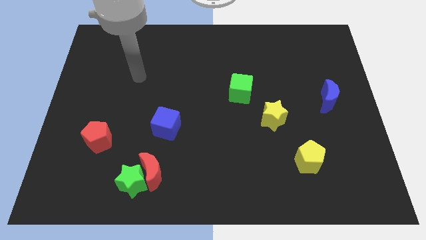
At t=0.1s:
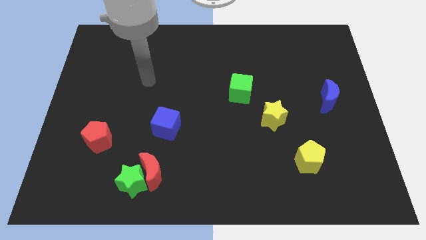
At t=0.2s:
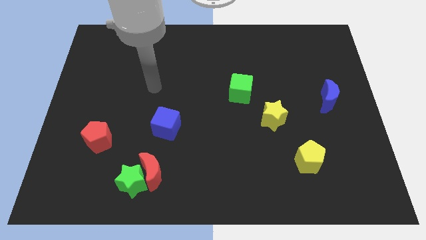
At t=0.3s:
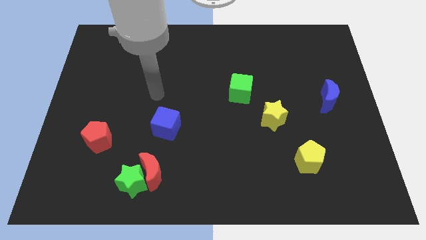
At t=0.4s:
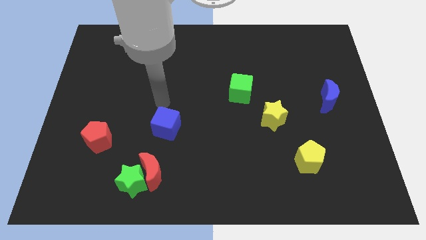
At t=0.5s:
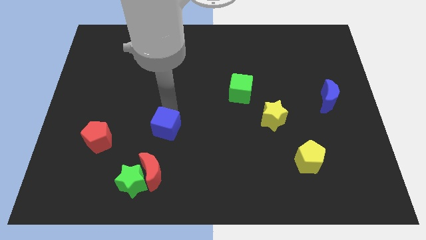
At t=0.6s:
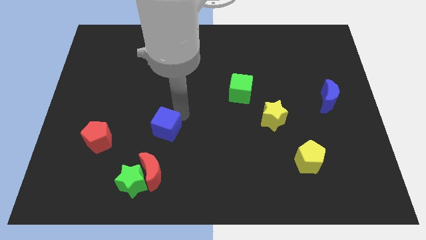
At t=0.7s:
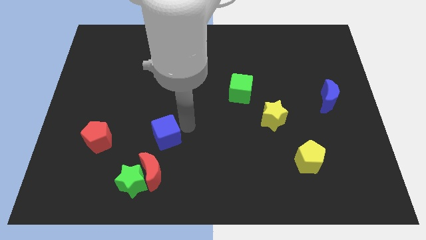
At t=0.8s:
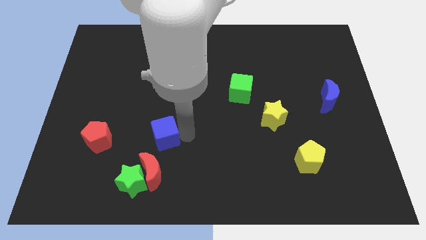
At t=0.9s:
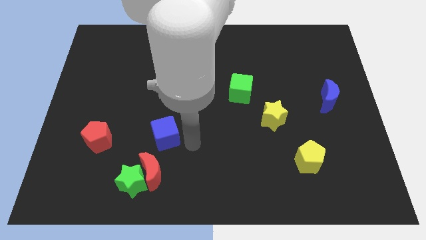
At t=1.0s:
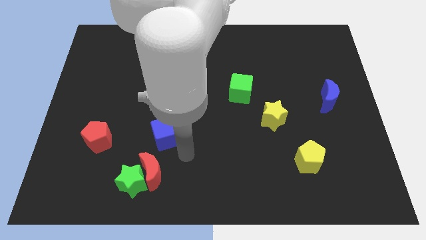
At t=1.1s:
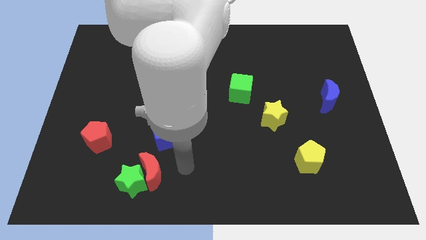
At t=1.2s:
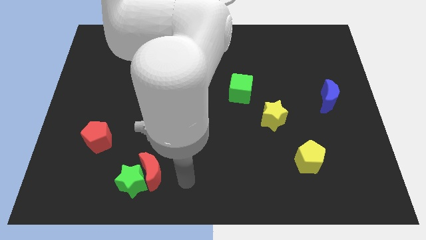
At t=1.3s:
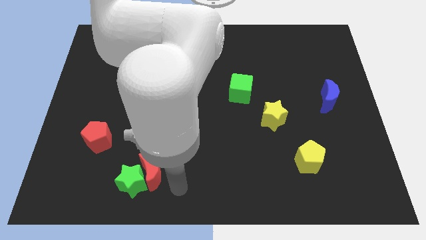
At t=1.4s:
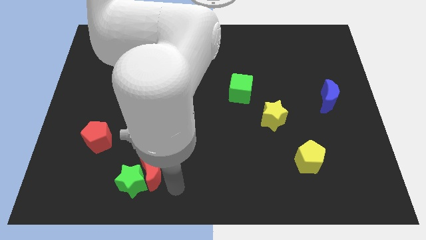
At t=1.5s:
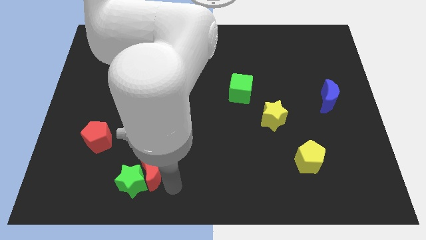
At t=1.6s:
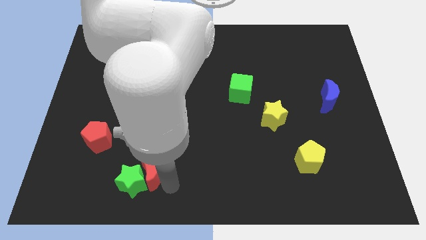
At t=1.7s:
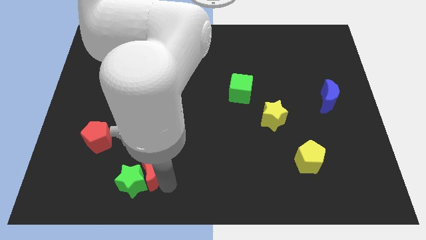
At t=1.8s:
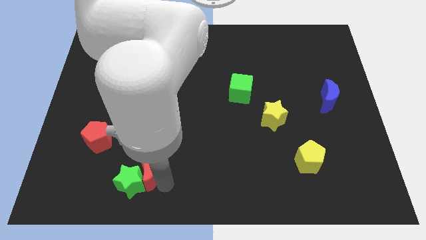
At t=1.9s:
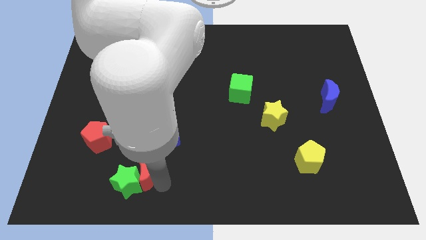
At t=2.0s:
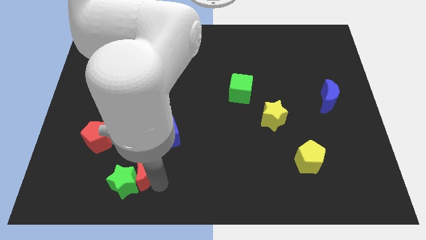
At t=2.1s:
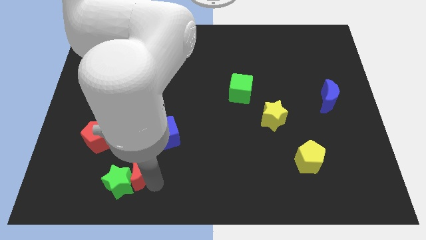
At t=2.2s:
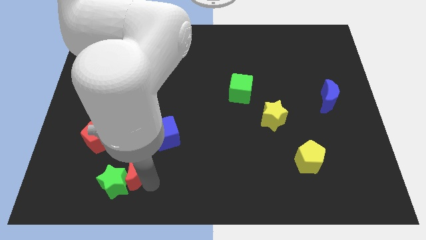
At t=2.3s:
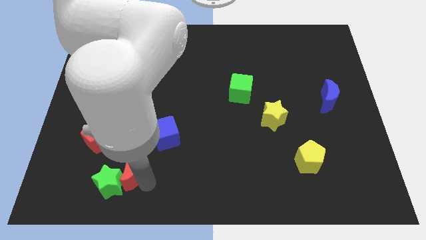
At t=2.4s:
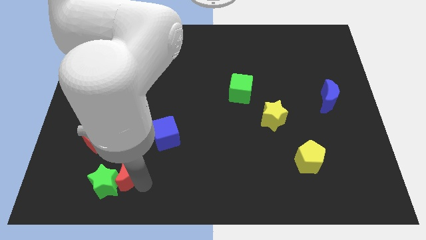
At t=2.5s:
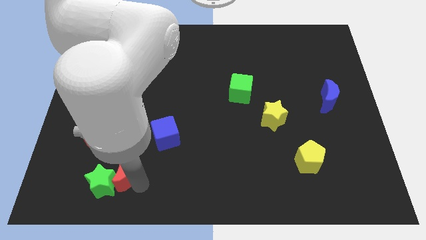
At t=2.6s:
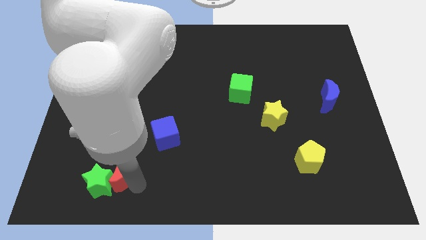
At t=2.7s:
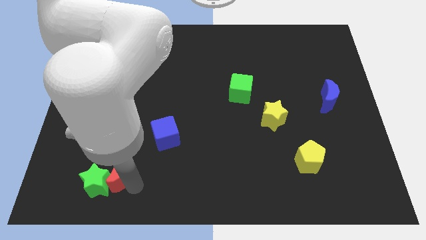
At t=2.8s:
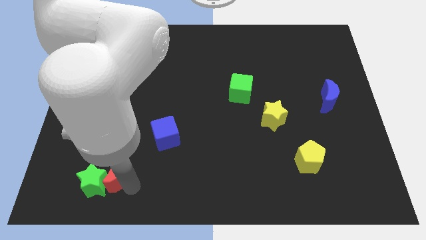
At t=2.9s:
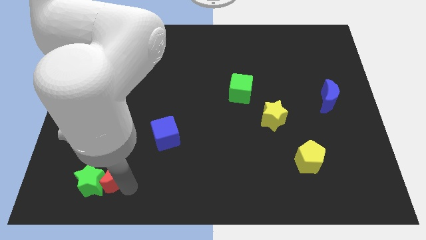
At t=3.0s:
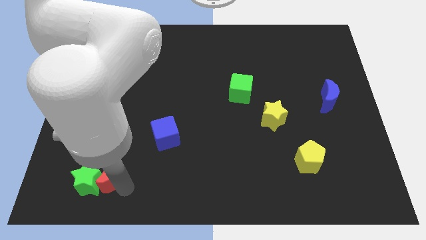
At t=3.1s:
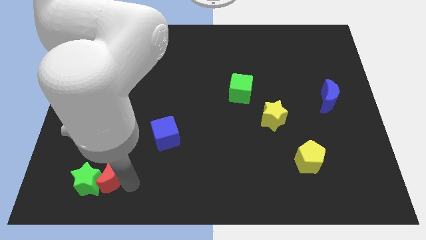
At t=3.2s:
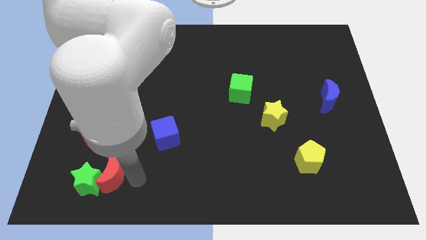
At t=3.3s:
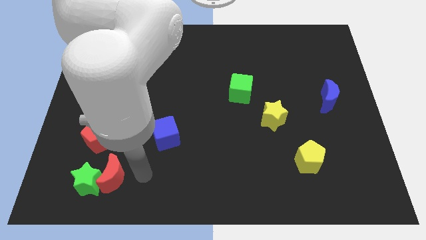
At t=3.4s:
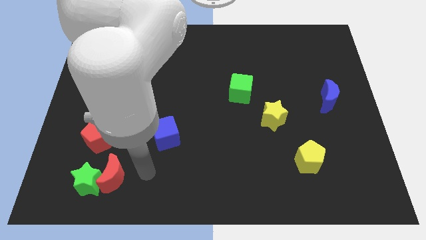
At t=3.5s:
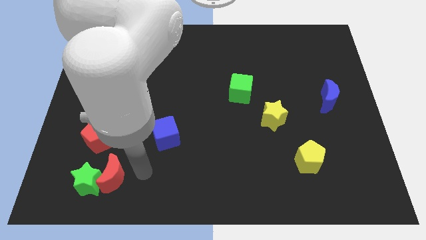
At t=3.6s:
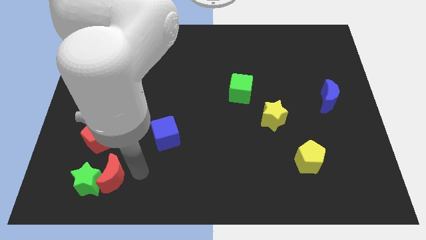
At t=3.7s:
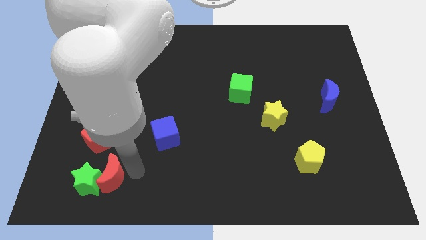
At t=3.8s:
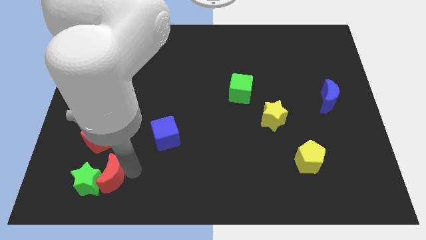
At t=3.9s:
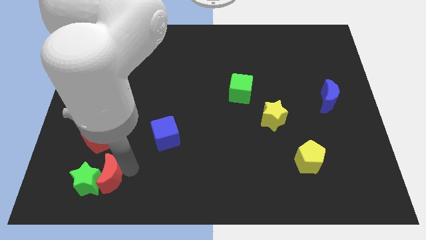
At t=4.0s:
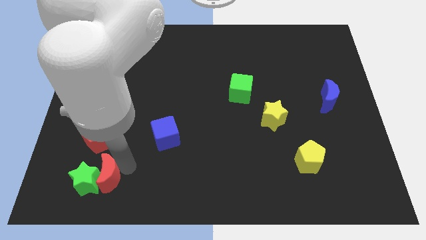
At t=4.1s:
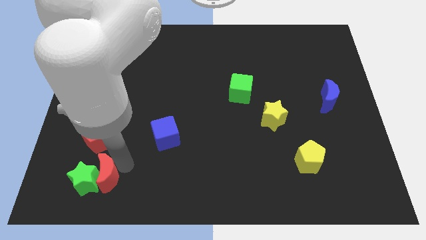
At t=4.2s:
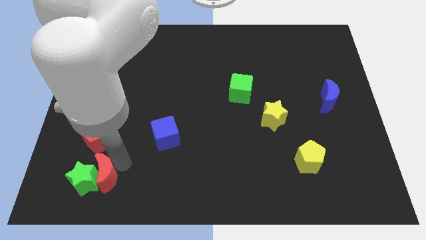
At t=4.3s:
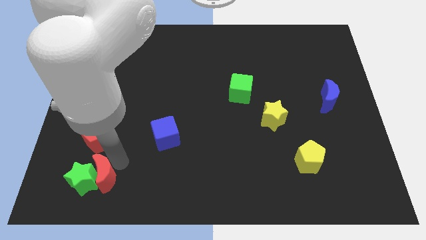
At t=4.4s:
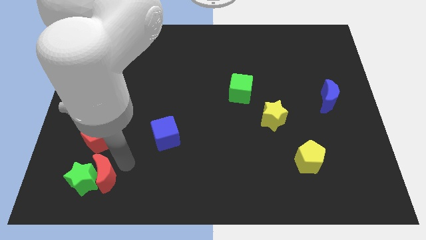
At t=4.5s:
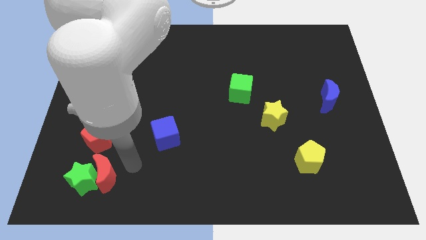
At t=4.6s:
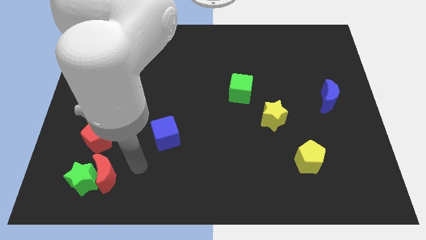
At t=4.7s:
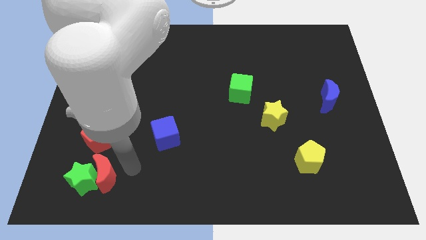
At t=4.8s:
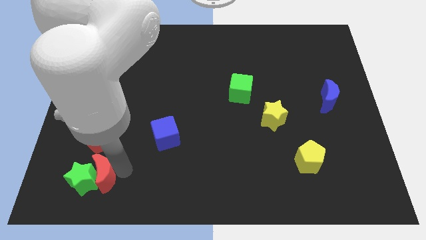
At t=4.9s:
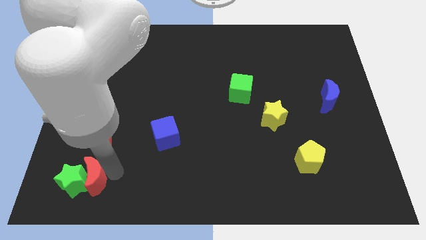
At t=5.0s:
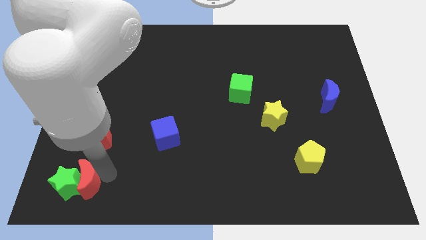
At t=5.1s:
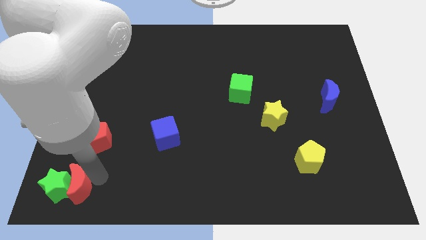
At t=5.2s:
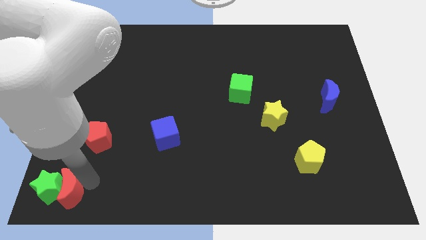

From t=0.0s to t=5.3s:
put the red moon to the bottom left corner

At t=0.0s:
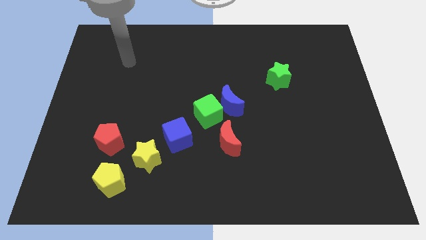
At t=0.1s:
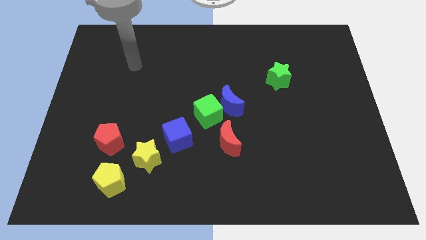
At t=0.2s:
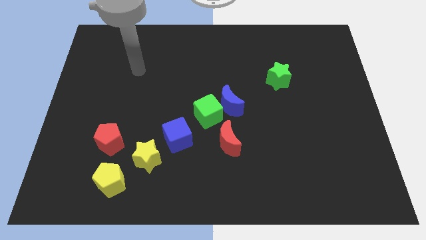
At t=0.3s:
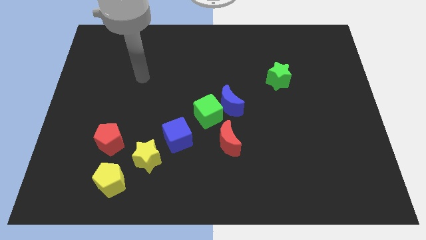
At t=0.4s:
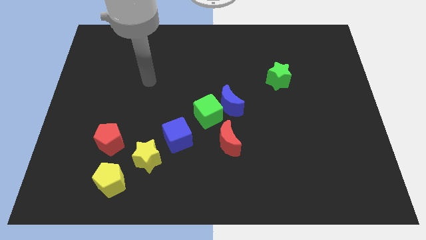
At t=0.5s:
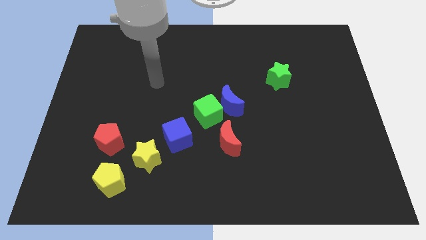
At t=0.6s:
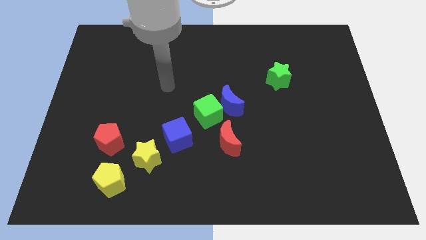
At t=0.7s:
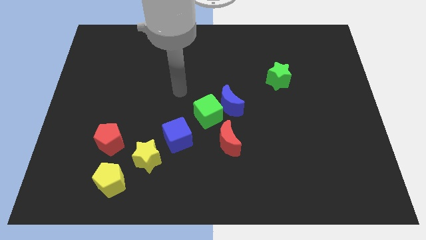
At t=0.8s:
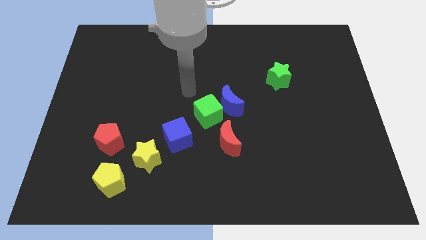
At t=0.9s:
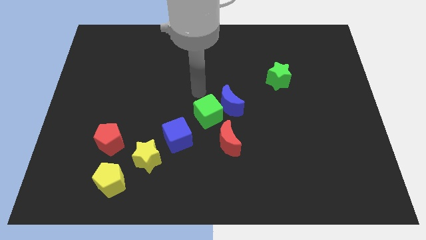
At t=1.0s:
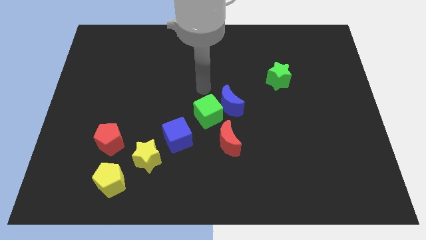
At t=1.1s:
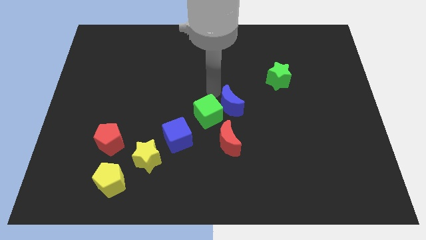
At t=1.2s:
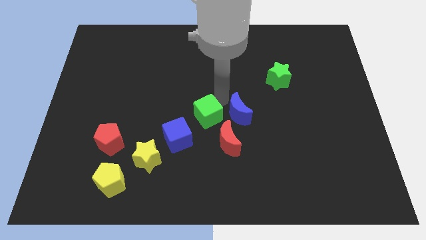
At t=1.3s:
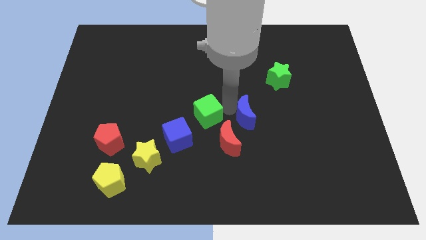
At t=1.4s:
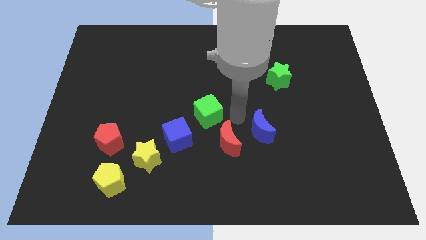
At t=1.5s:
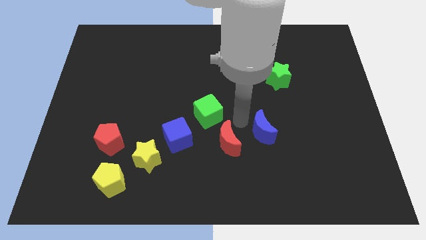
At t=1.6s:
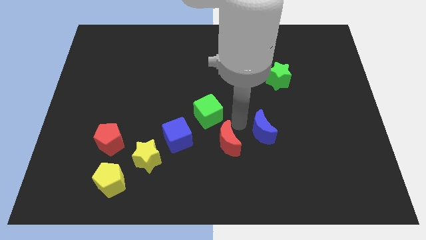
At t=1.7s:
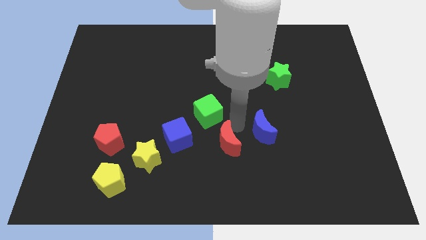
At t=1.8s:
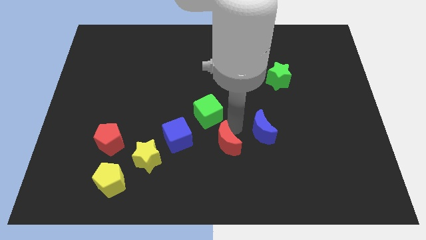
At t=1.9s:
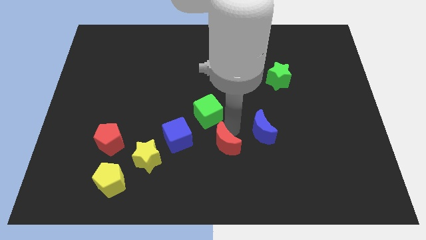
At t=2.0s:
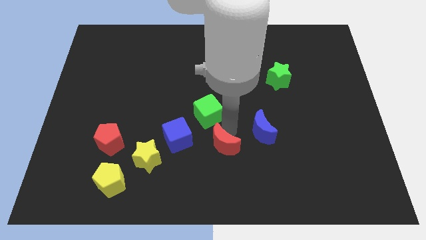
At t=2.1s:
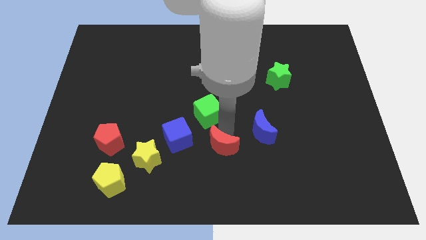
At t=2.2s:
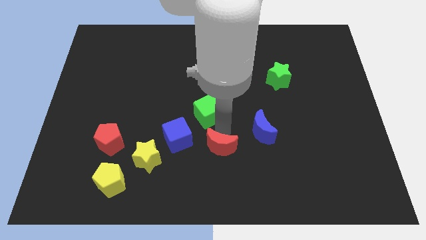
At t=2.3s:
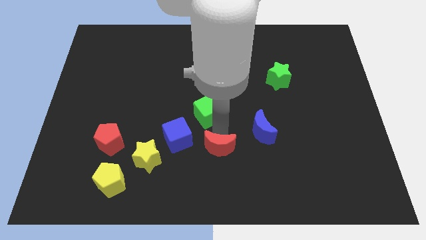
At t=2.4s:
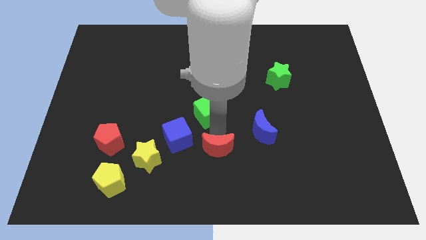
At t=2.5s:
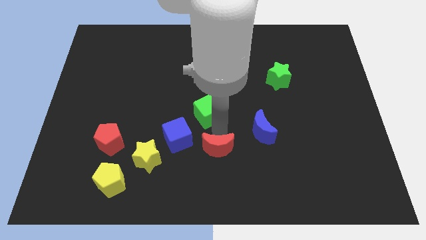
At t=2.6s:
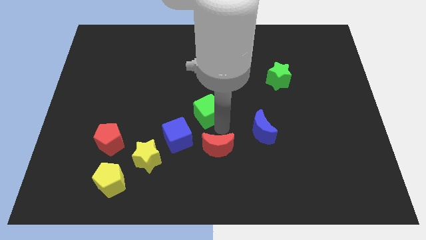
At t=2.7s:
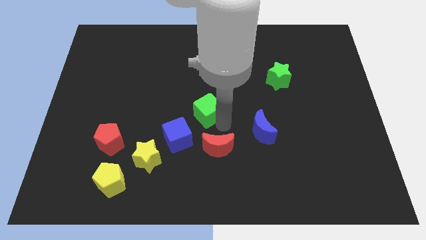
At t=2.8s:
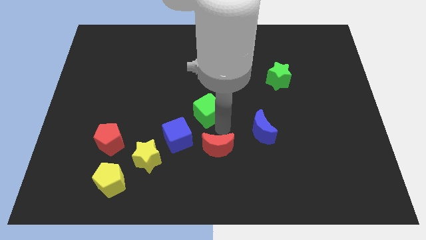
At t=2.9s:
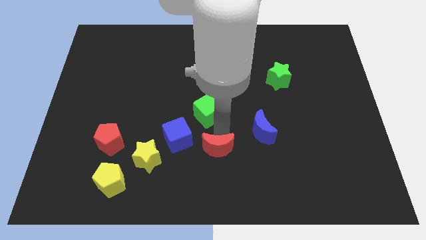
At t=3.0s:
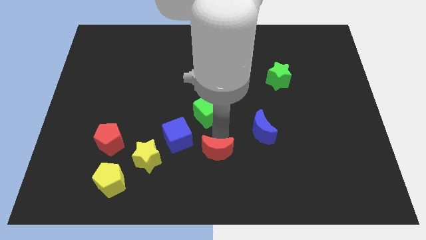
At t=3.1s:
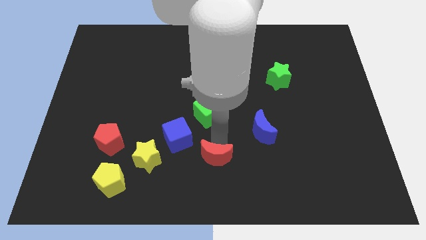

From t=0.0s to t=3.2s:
put the red moon to the bottom side
